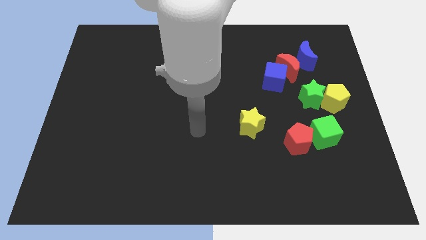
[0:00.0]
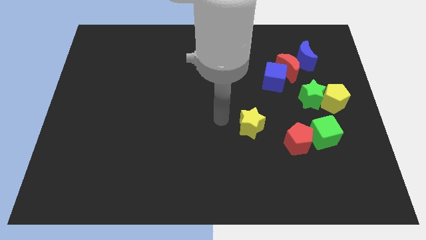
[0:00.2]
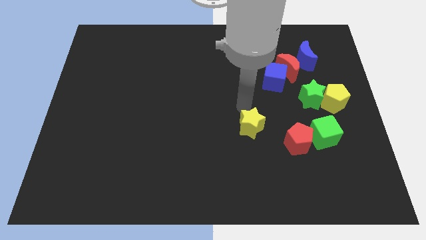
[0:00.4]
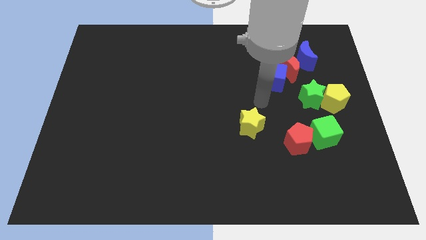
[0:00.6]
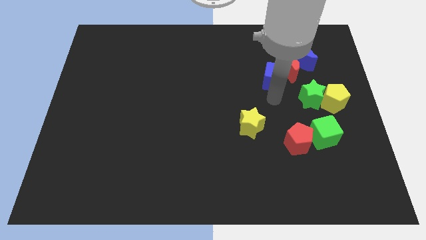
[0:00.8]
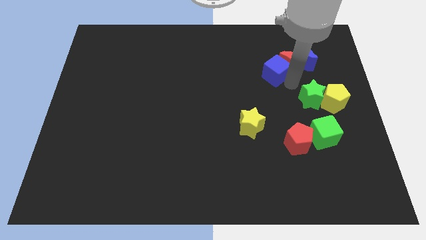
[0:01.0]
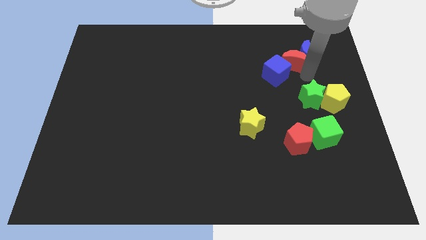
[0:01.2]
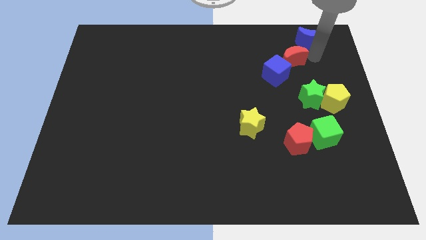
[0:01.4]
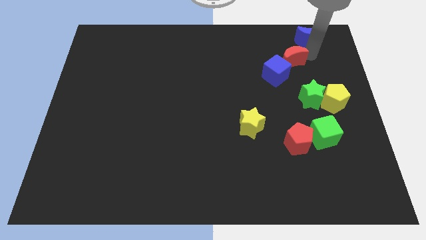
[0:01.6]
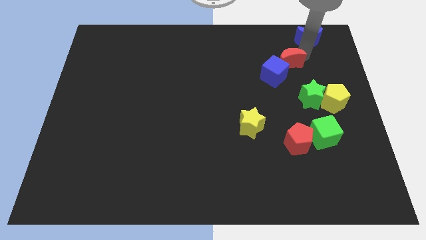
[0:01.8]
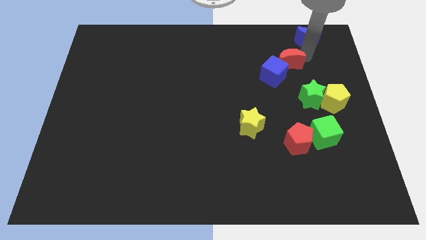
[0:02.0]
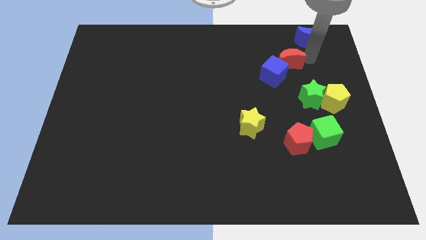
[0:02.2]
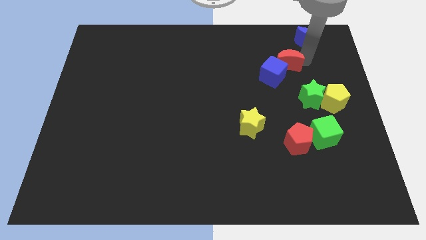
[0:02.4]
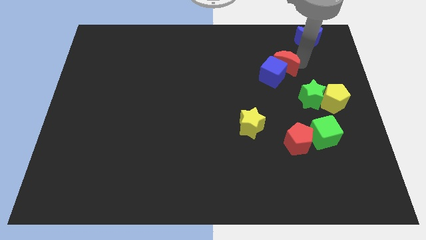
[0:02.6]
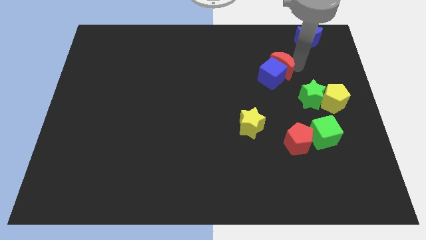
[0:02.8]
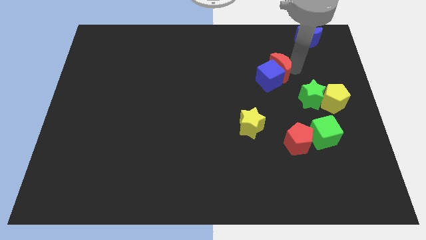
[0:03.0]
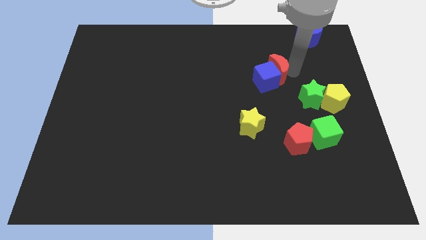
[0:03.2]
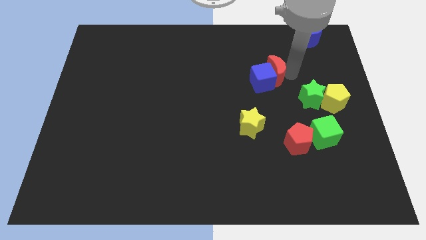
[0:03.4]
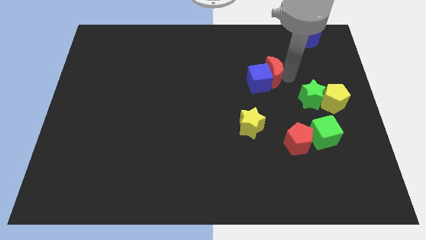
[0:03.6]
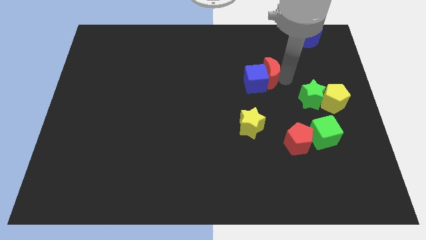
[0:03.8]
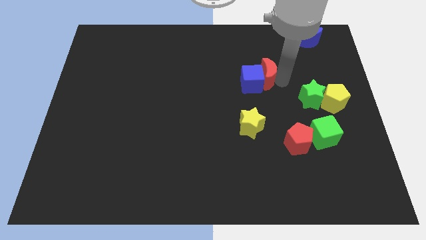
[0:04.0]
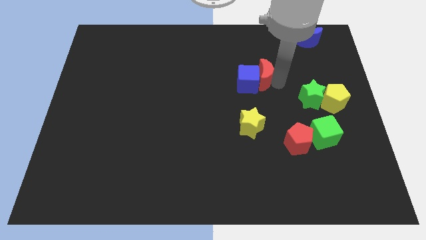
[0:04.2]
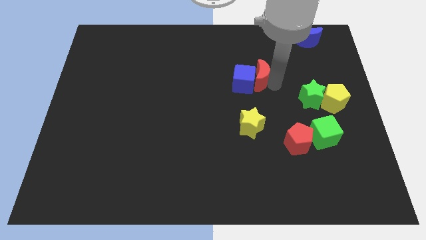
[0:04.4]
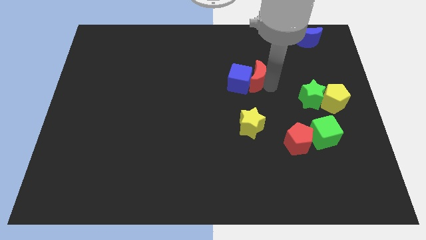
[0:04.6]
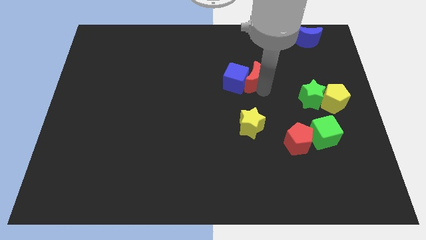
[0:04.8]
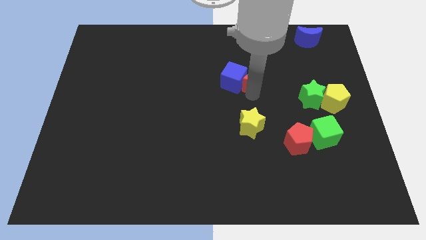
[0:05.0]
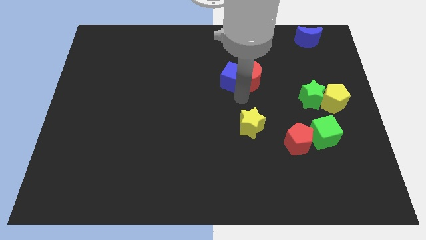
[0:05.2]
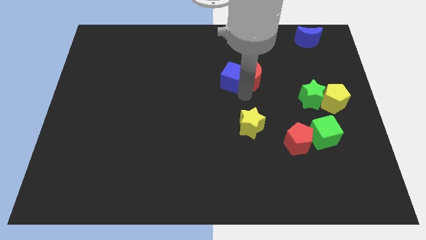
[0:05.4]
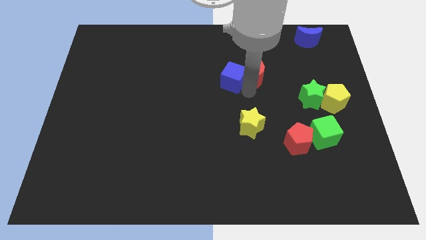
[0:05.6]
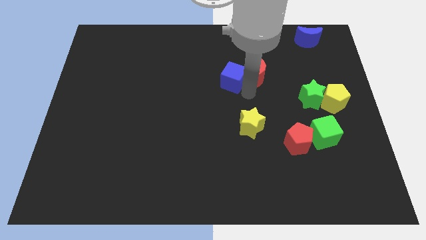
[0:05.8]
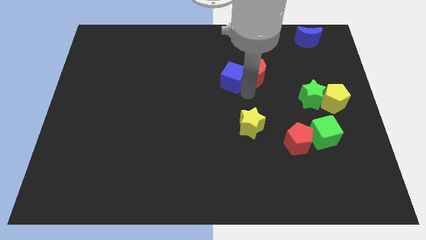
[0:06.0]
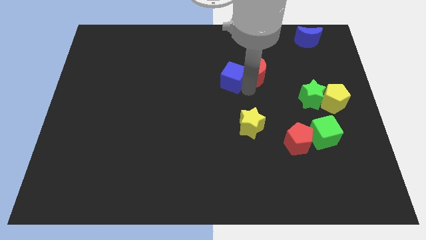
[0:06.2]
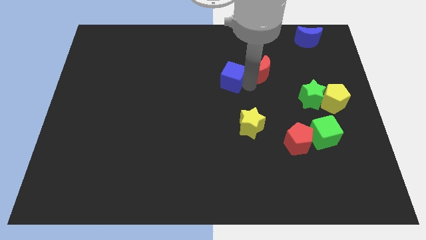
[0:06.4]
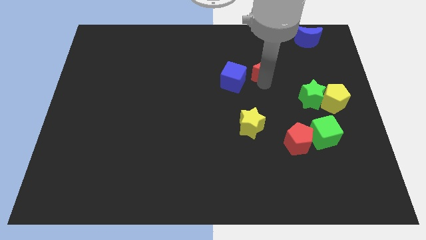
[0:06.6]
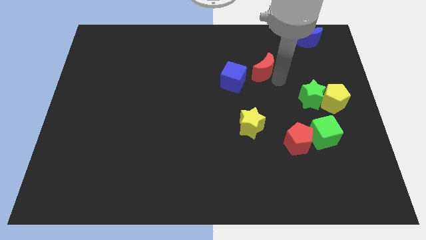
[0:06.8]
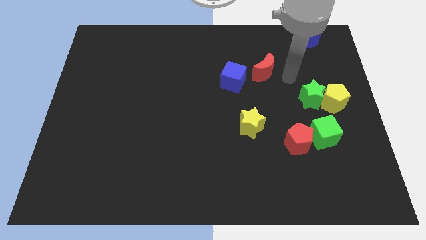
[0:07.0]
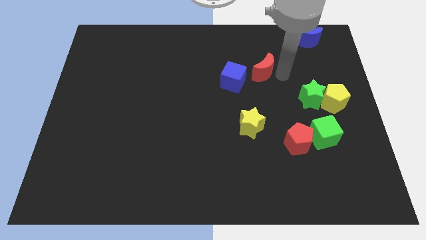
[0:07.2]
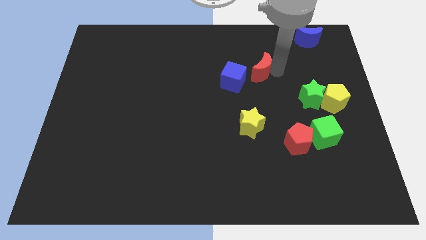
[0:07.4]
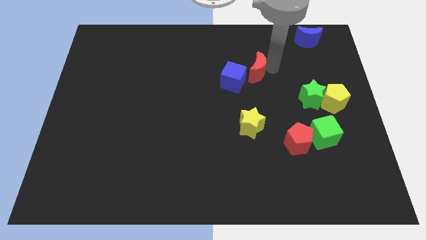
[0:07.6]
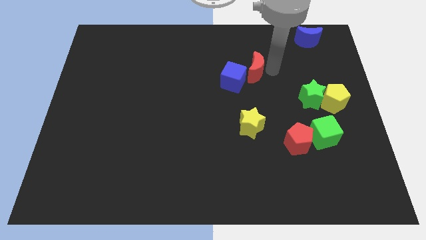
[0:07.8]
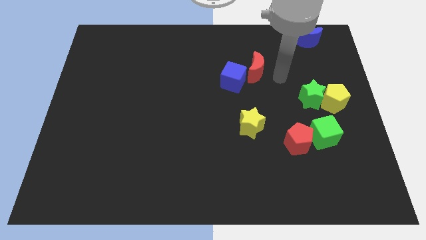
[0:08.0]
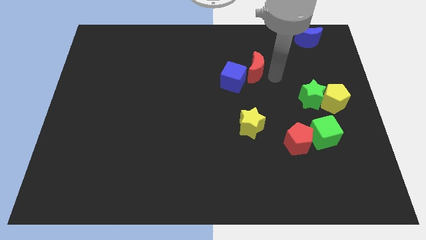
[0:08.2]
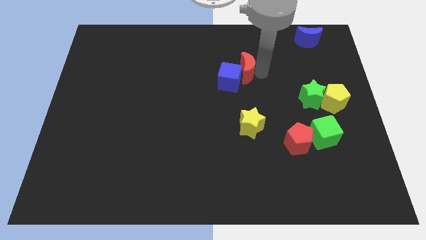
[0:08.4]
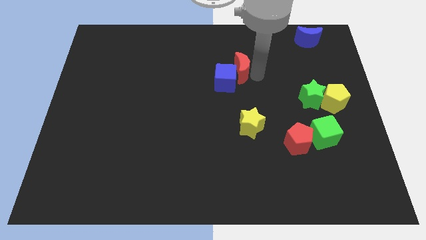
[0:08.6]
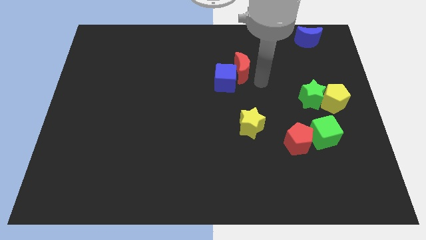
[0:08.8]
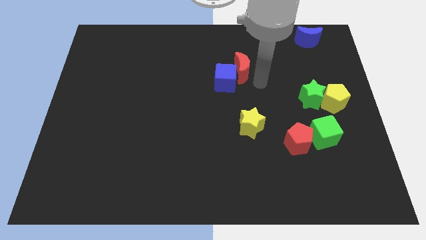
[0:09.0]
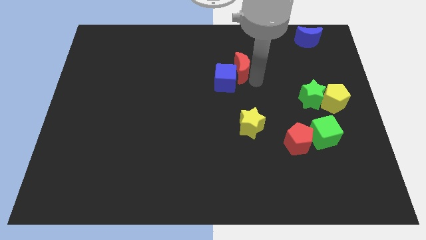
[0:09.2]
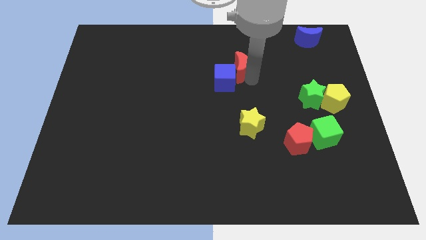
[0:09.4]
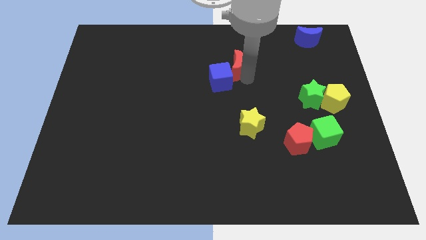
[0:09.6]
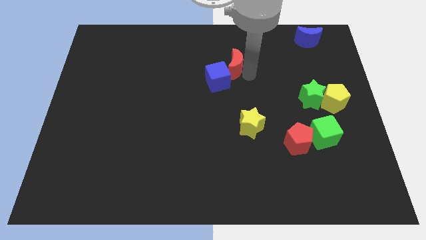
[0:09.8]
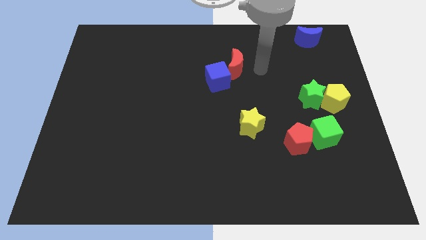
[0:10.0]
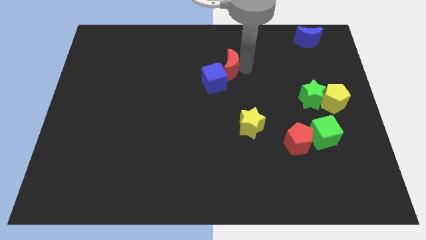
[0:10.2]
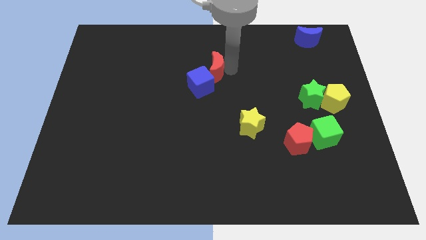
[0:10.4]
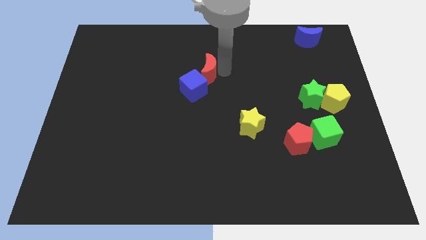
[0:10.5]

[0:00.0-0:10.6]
push the red moon to the left

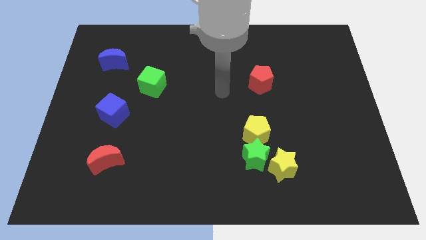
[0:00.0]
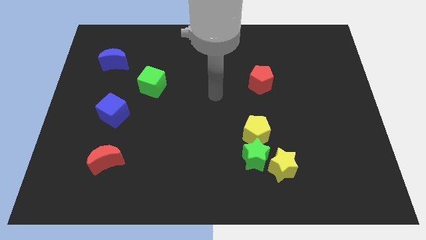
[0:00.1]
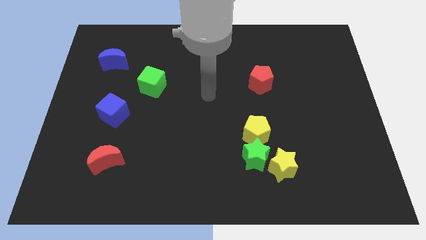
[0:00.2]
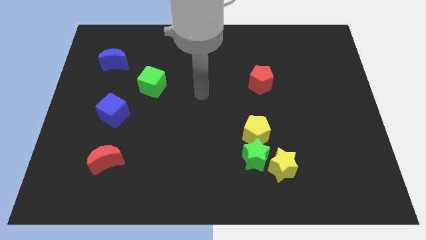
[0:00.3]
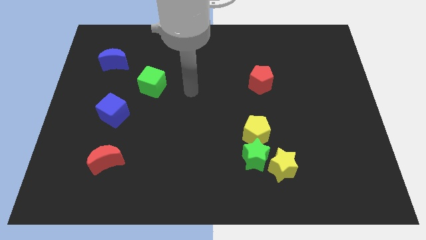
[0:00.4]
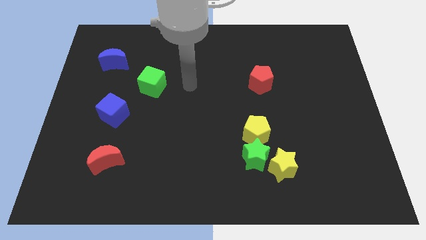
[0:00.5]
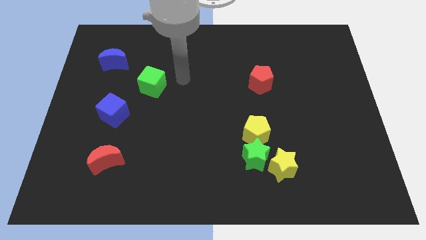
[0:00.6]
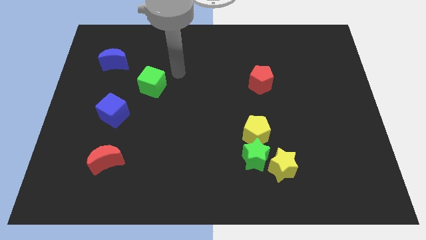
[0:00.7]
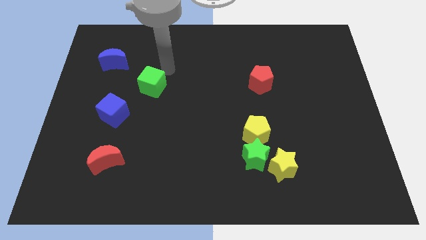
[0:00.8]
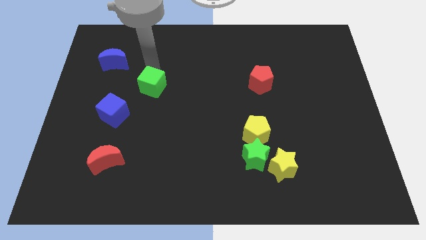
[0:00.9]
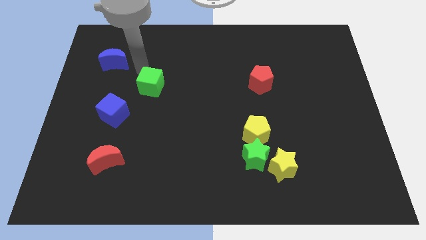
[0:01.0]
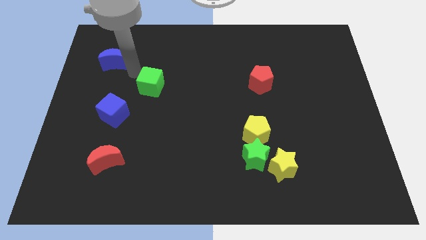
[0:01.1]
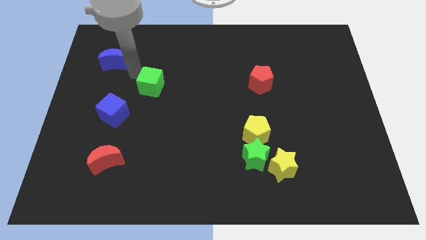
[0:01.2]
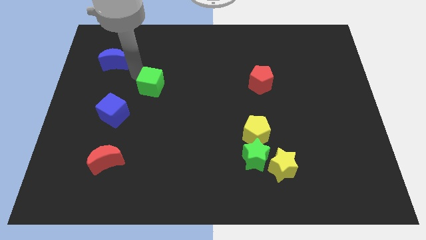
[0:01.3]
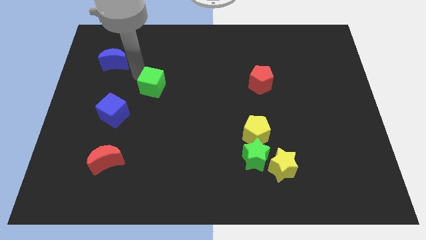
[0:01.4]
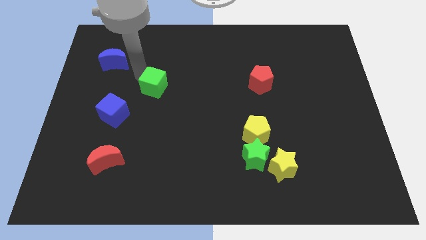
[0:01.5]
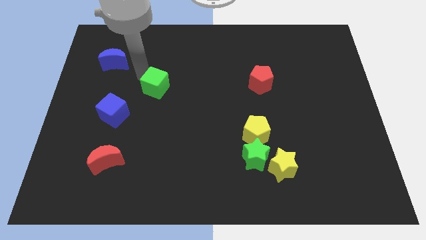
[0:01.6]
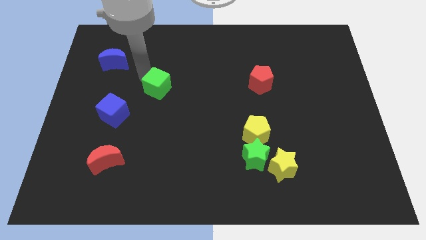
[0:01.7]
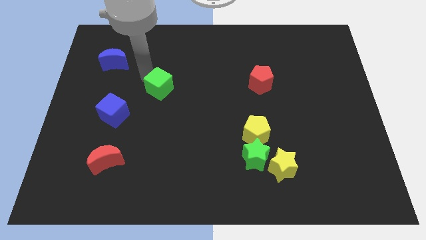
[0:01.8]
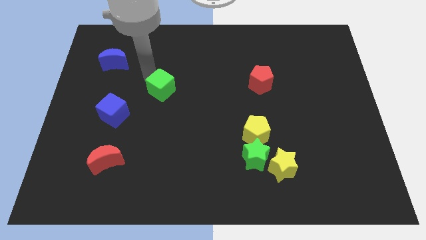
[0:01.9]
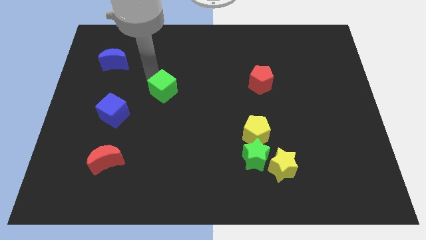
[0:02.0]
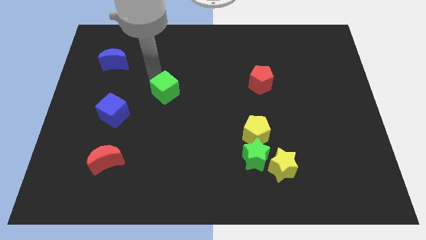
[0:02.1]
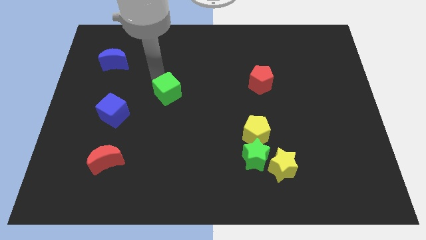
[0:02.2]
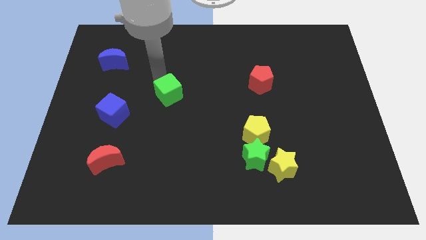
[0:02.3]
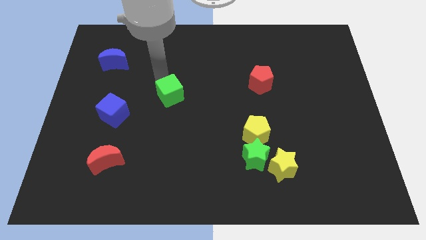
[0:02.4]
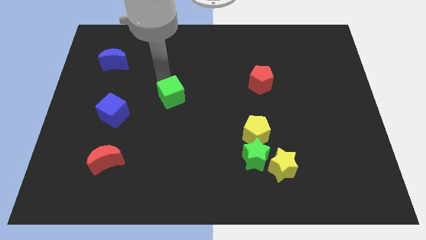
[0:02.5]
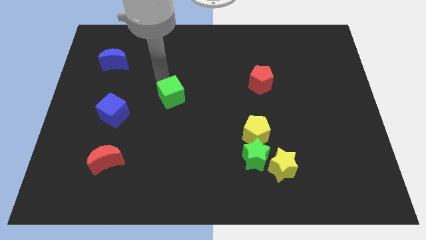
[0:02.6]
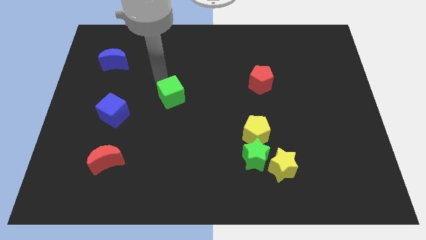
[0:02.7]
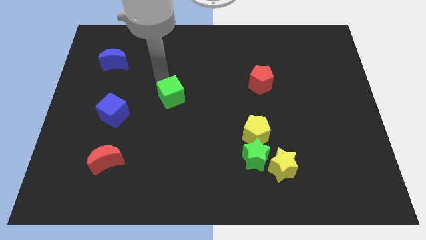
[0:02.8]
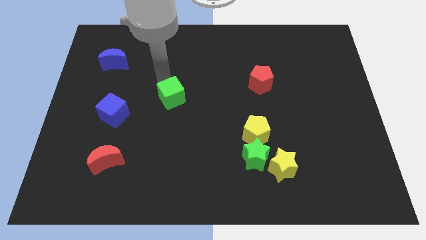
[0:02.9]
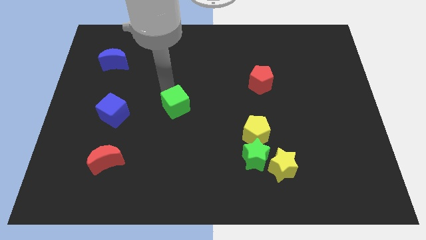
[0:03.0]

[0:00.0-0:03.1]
slide the green cube a little bit diagonally downwards and to the right
